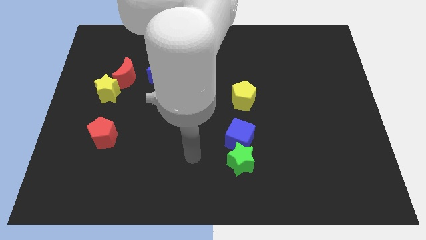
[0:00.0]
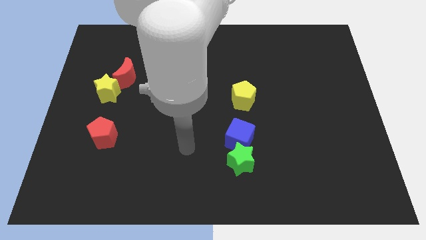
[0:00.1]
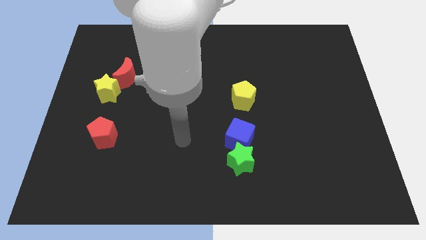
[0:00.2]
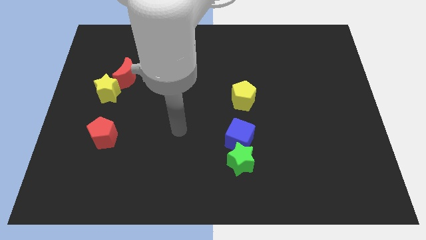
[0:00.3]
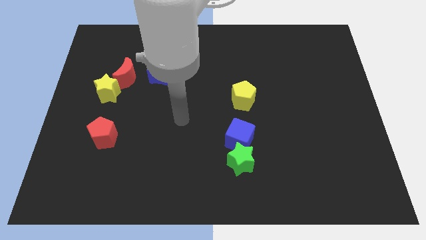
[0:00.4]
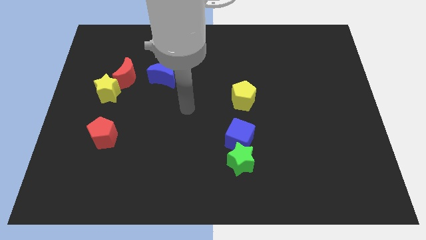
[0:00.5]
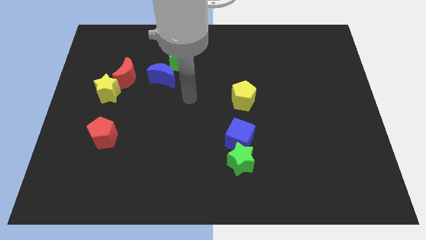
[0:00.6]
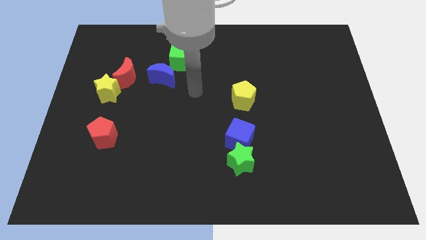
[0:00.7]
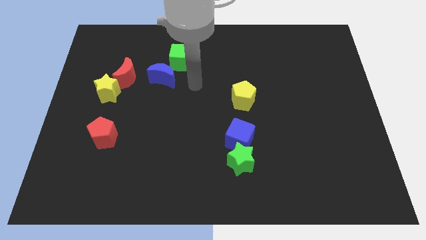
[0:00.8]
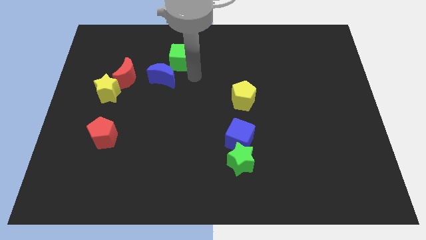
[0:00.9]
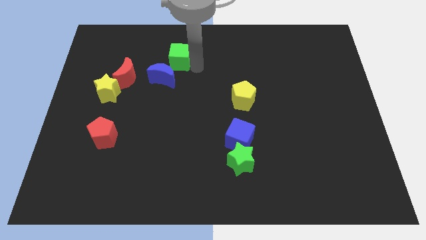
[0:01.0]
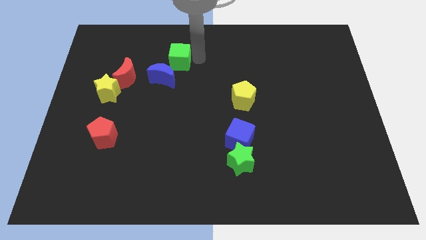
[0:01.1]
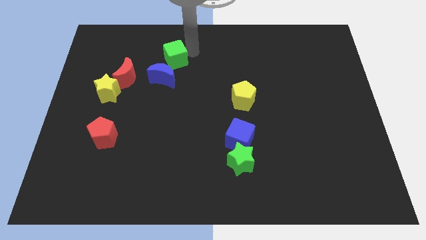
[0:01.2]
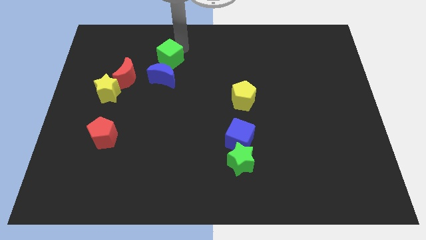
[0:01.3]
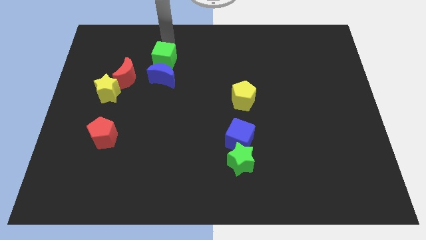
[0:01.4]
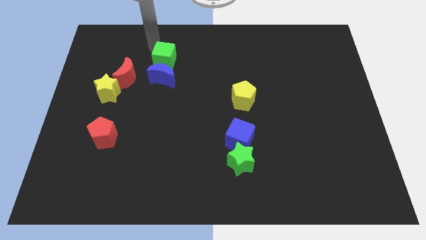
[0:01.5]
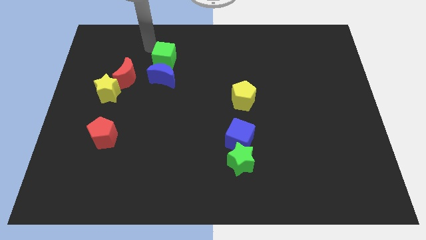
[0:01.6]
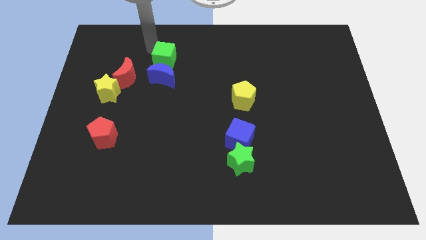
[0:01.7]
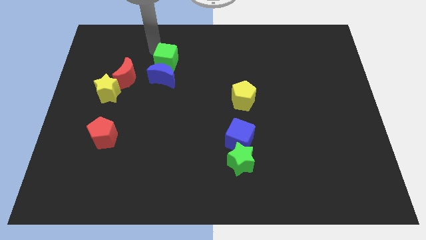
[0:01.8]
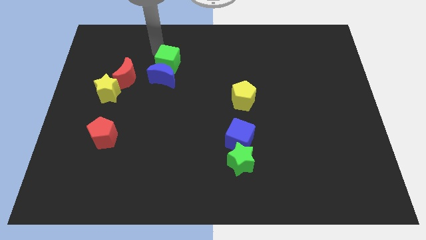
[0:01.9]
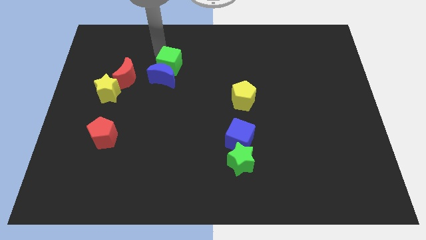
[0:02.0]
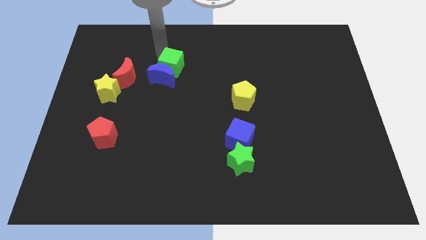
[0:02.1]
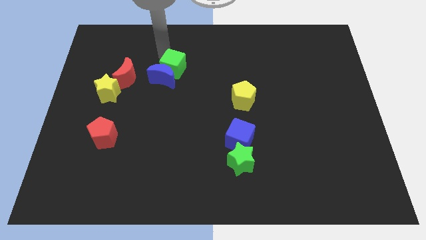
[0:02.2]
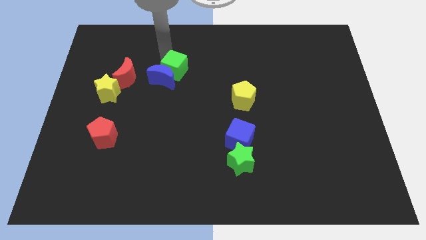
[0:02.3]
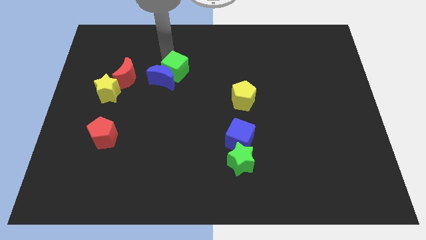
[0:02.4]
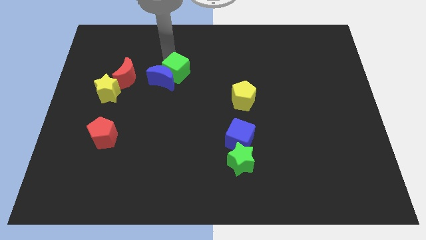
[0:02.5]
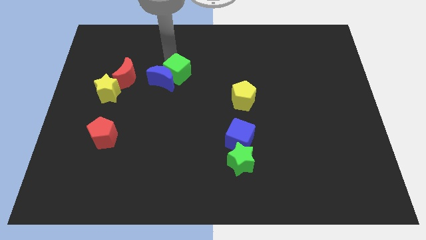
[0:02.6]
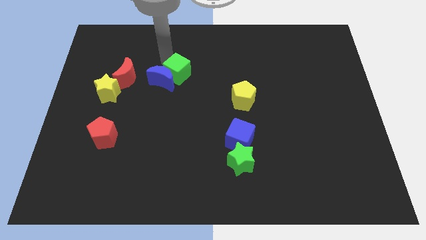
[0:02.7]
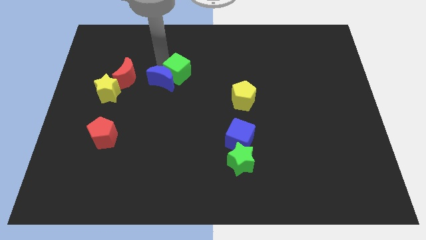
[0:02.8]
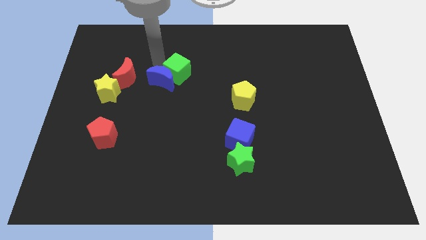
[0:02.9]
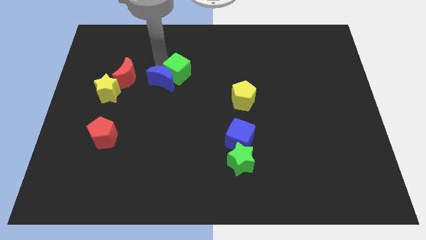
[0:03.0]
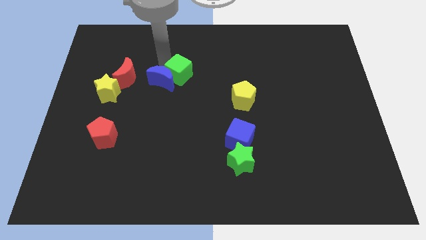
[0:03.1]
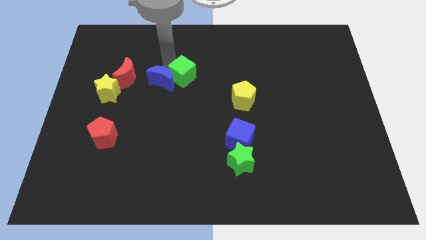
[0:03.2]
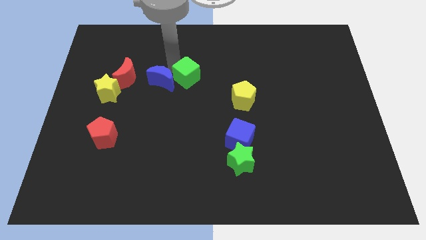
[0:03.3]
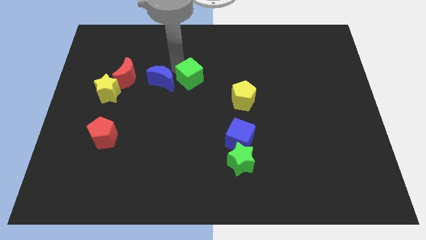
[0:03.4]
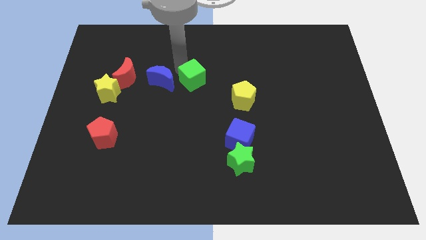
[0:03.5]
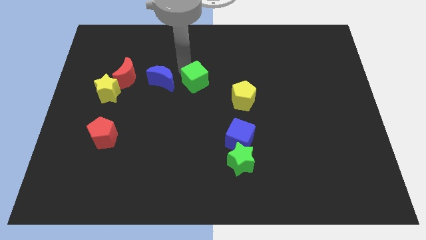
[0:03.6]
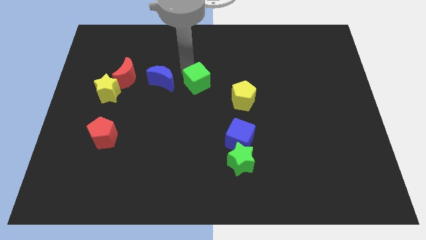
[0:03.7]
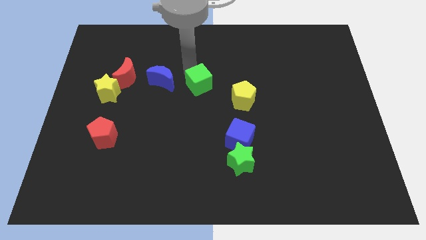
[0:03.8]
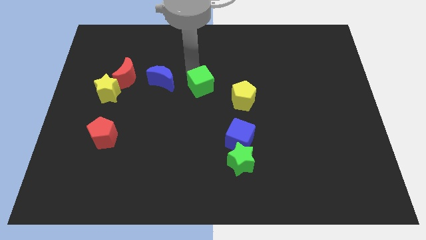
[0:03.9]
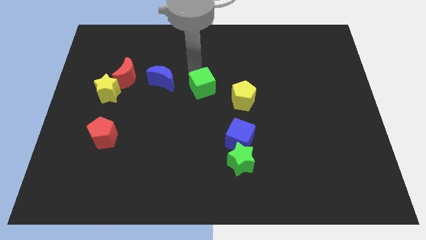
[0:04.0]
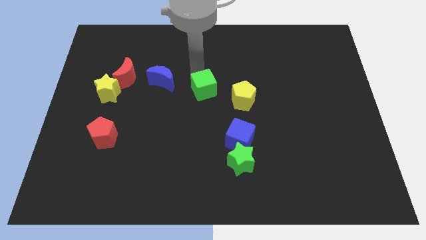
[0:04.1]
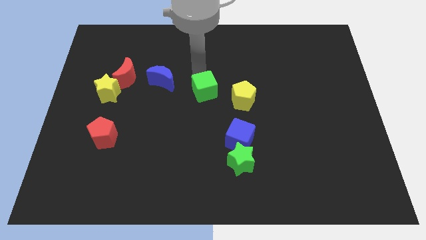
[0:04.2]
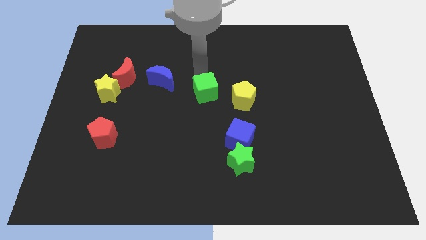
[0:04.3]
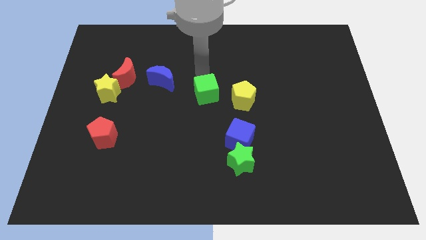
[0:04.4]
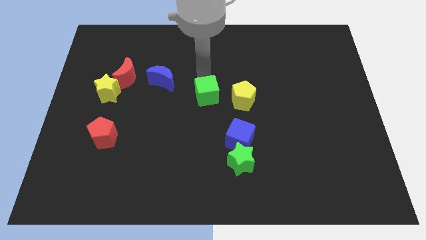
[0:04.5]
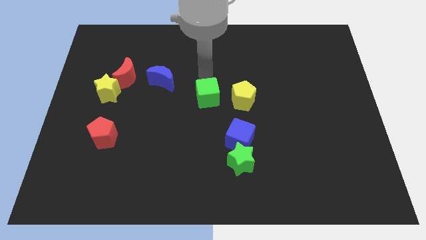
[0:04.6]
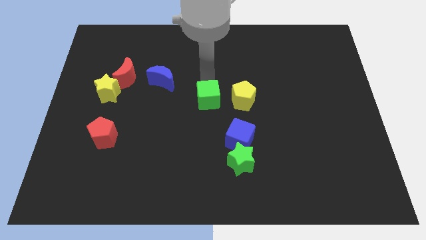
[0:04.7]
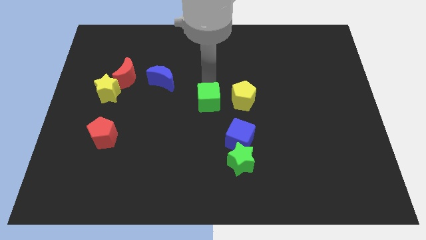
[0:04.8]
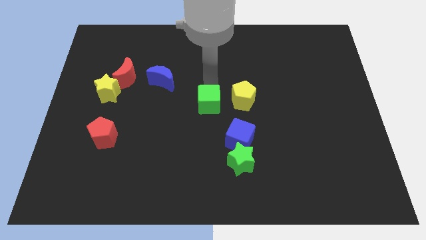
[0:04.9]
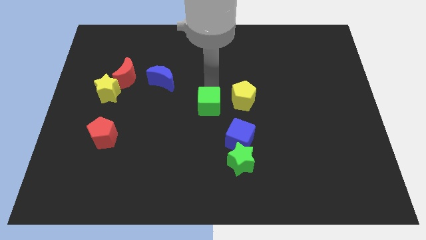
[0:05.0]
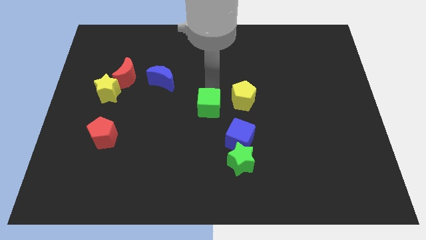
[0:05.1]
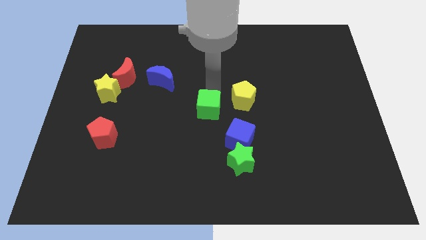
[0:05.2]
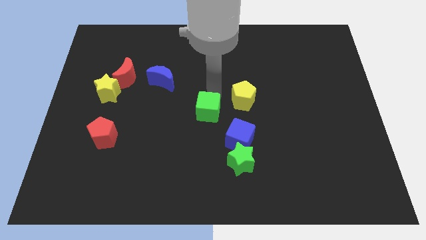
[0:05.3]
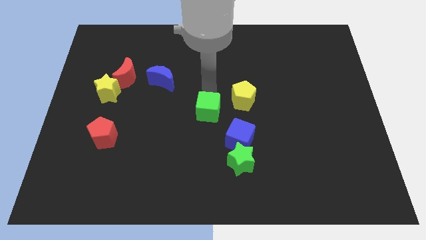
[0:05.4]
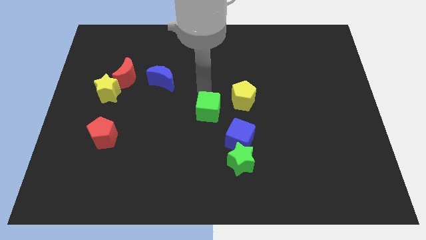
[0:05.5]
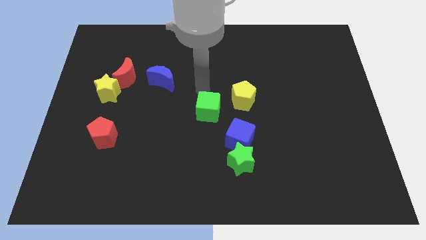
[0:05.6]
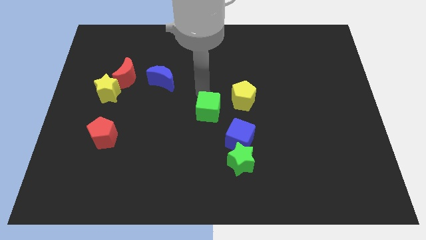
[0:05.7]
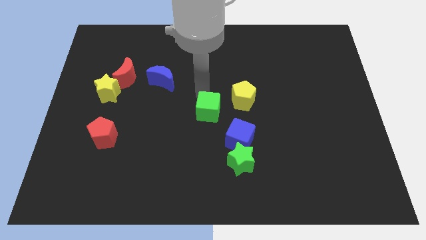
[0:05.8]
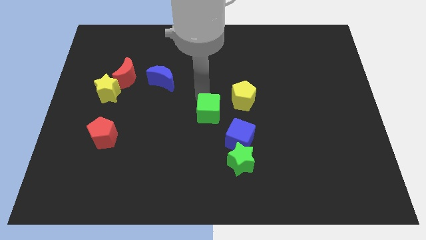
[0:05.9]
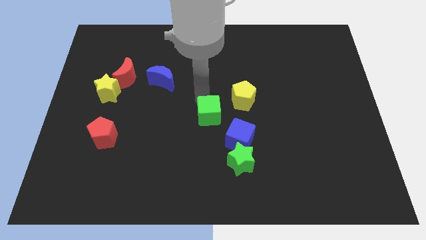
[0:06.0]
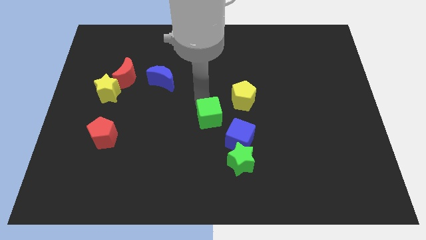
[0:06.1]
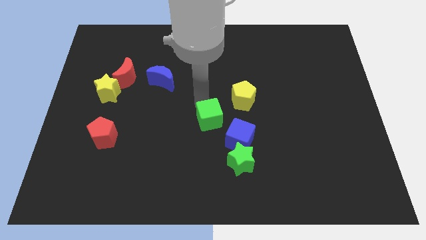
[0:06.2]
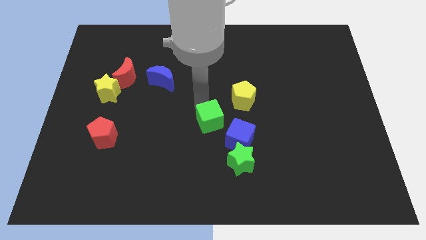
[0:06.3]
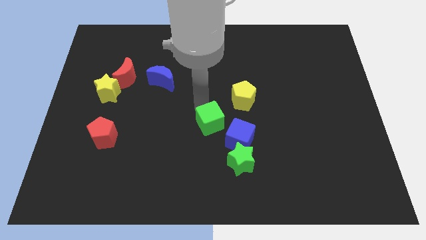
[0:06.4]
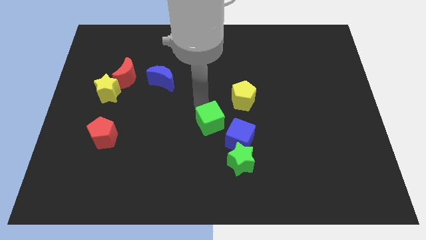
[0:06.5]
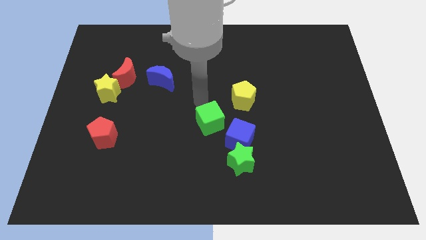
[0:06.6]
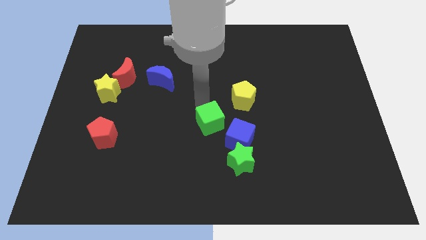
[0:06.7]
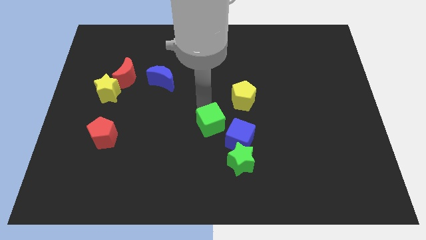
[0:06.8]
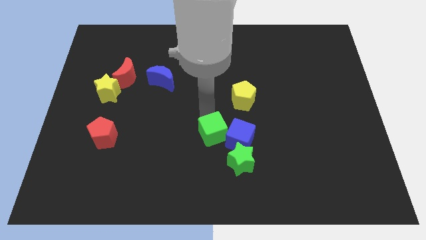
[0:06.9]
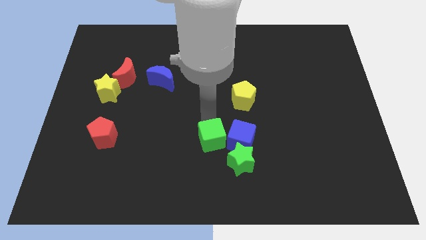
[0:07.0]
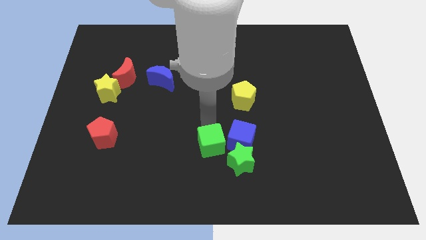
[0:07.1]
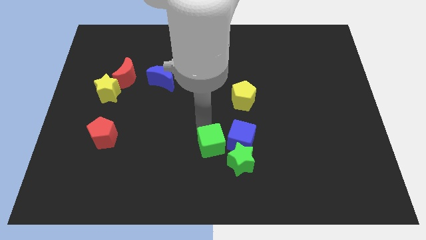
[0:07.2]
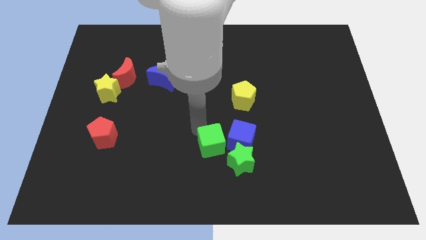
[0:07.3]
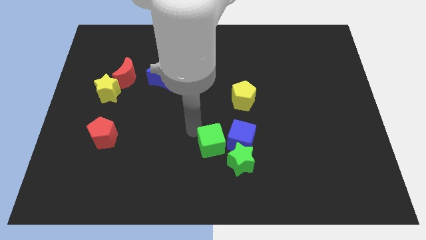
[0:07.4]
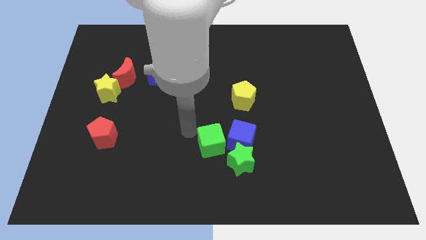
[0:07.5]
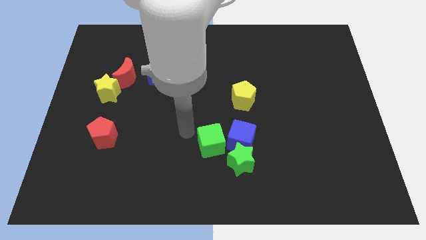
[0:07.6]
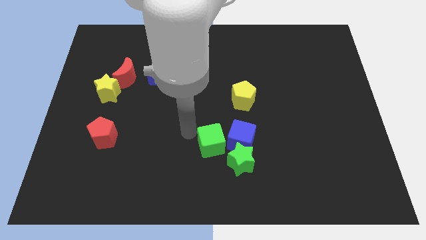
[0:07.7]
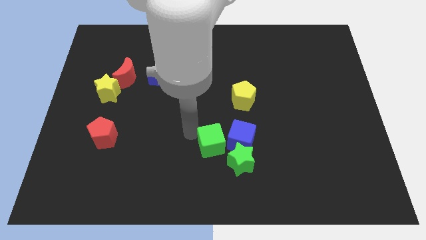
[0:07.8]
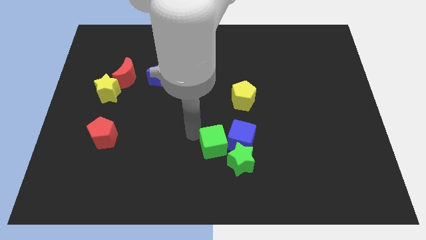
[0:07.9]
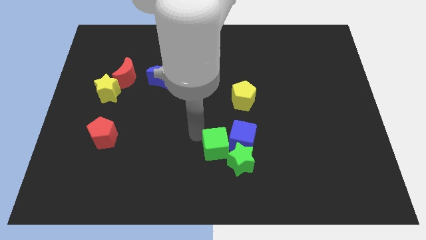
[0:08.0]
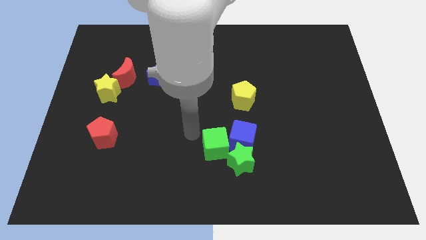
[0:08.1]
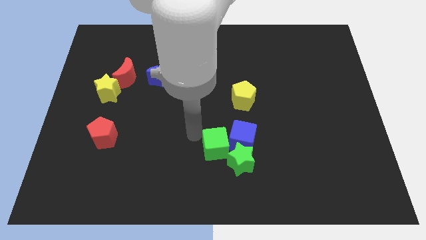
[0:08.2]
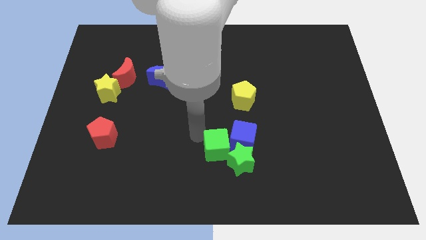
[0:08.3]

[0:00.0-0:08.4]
slide the green cube next to the green star
